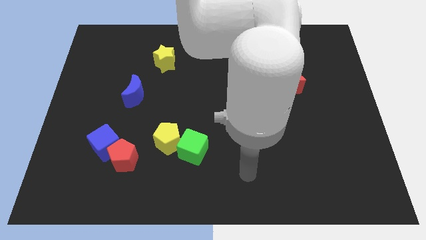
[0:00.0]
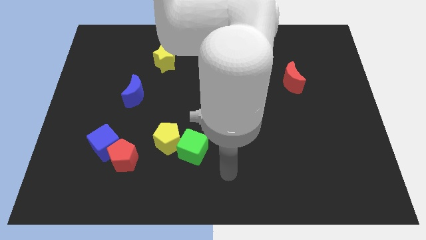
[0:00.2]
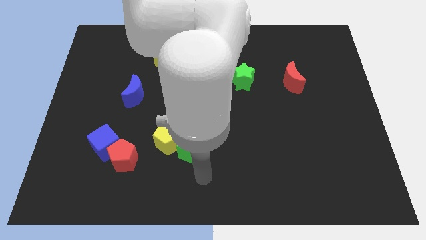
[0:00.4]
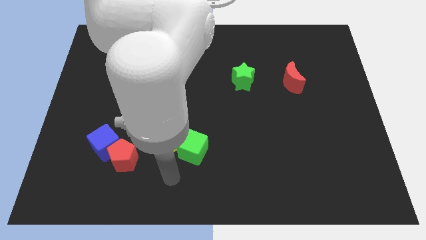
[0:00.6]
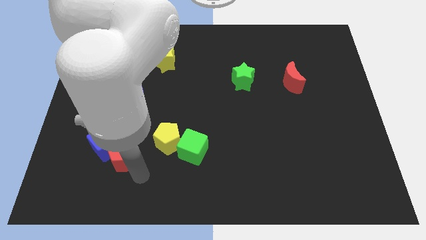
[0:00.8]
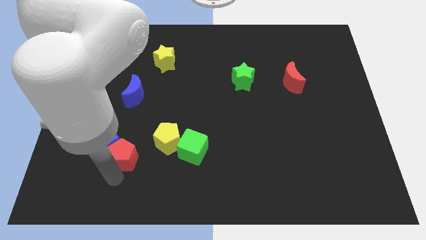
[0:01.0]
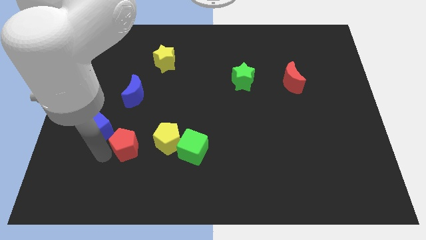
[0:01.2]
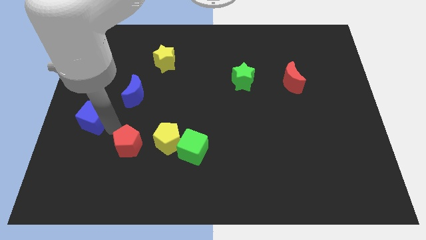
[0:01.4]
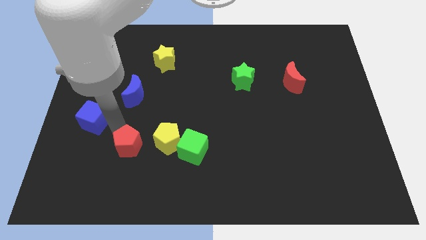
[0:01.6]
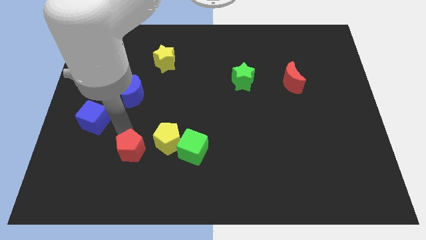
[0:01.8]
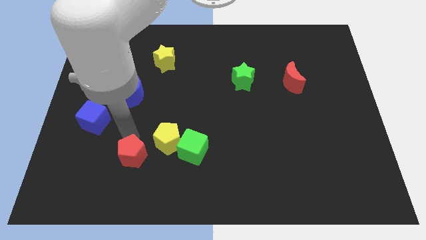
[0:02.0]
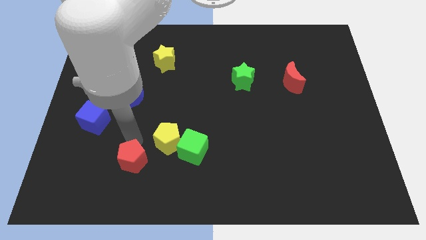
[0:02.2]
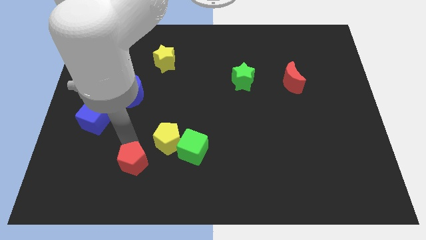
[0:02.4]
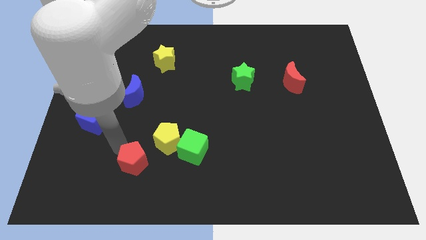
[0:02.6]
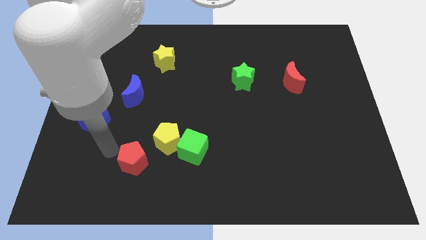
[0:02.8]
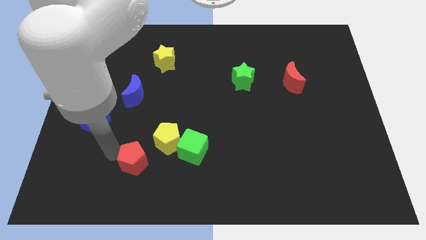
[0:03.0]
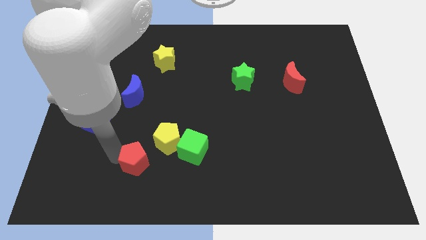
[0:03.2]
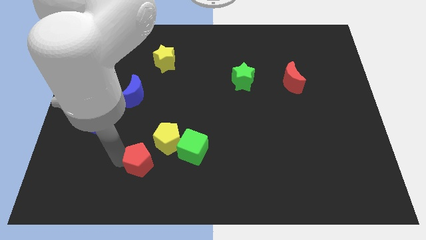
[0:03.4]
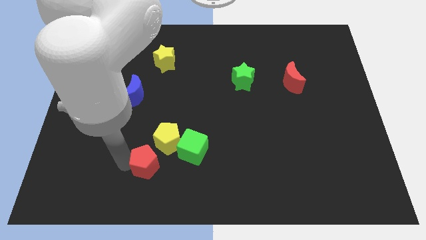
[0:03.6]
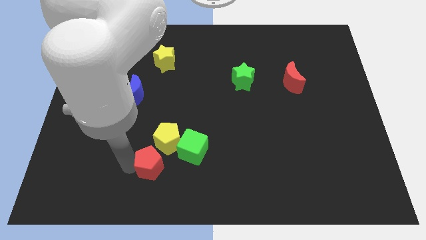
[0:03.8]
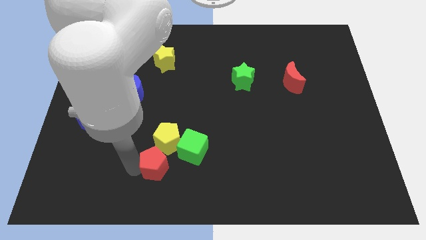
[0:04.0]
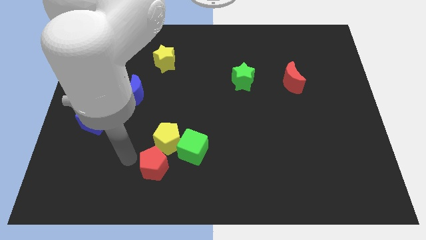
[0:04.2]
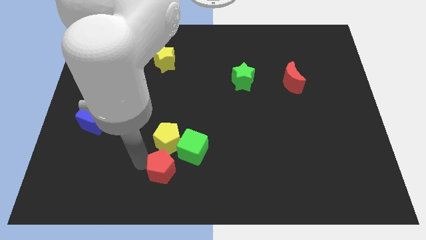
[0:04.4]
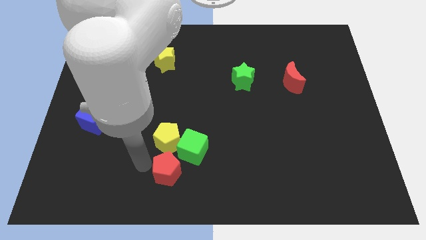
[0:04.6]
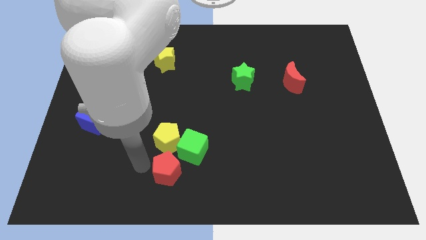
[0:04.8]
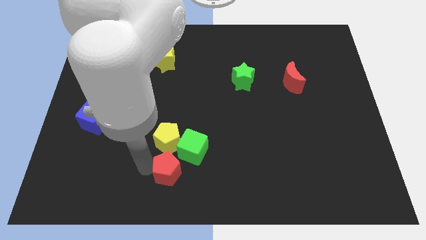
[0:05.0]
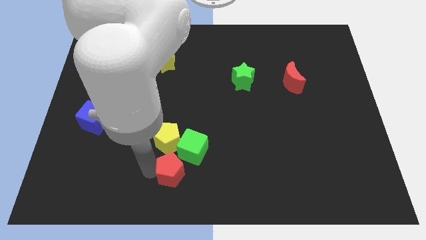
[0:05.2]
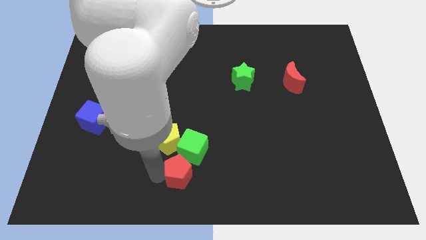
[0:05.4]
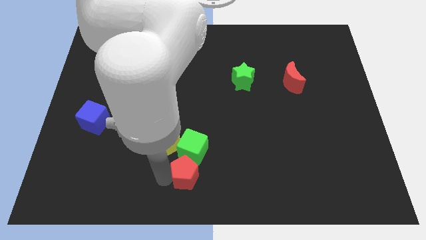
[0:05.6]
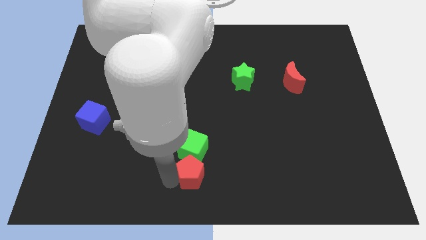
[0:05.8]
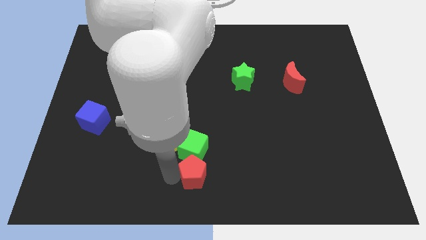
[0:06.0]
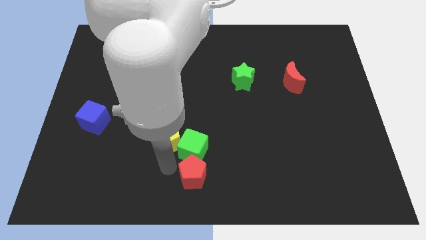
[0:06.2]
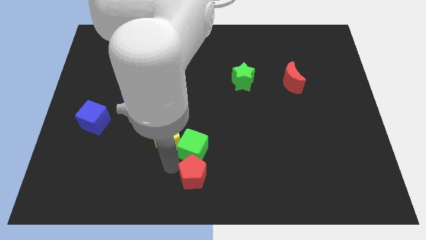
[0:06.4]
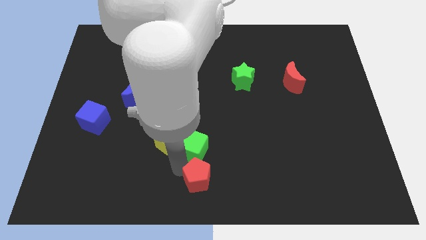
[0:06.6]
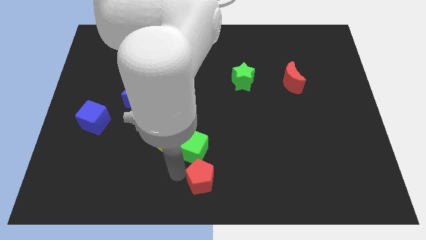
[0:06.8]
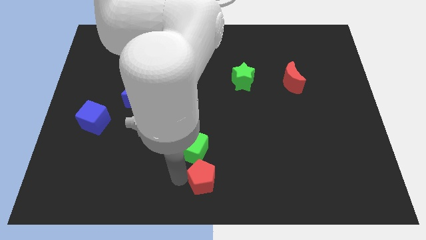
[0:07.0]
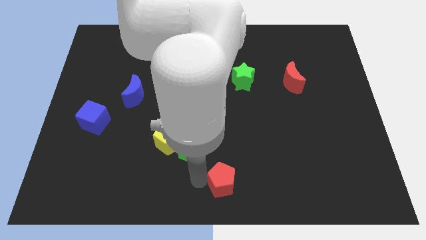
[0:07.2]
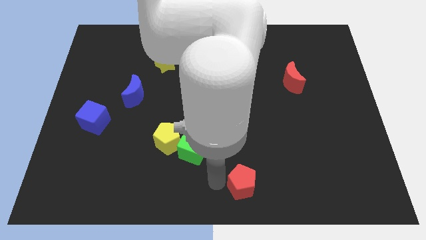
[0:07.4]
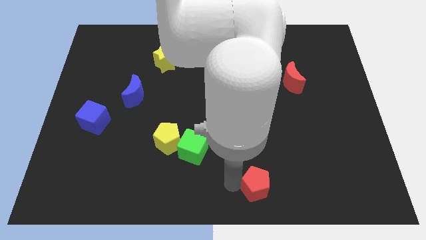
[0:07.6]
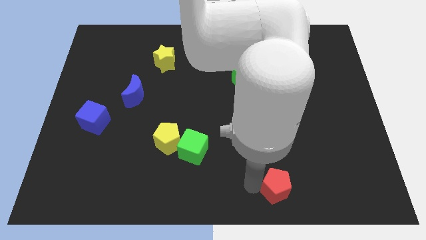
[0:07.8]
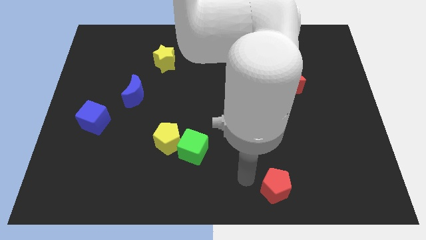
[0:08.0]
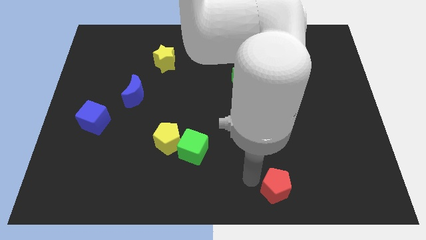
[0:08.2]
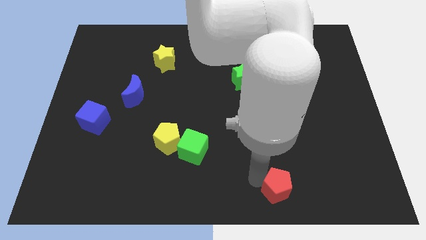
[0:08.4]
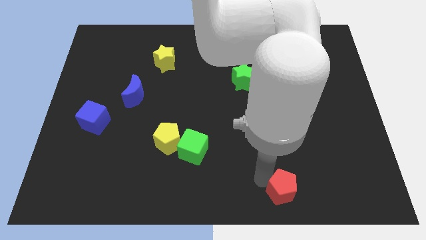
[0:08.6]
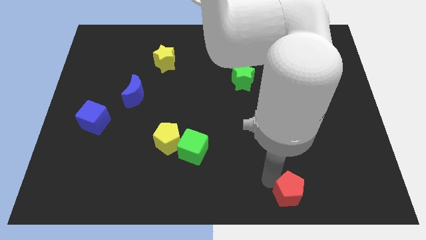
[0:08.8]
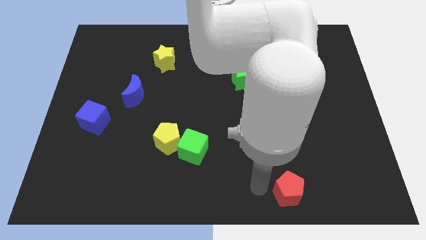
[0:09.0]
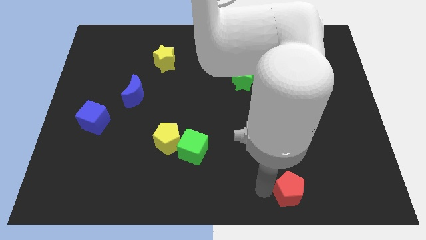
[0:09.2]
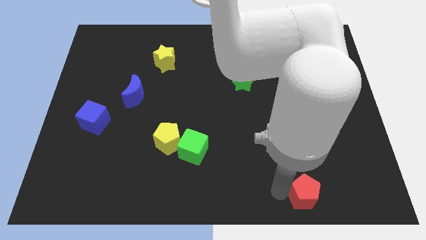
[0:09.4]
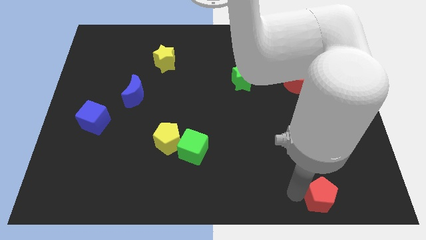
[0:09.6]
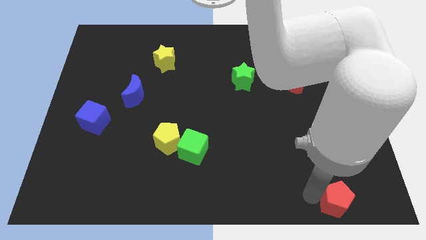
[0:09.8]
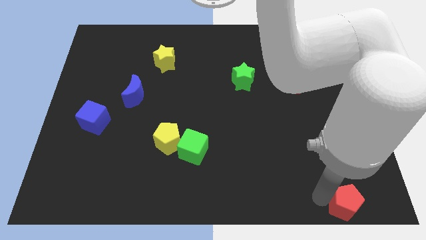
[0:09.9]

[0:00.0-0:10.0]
push the red pentagon to the bottom right of the board

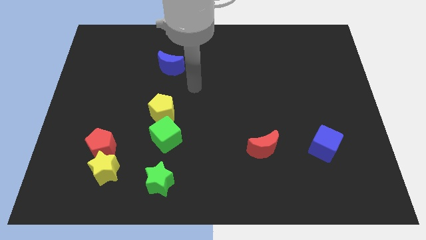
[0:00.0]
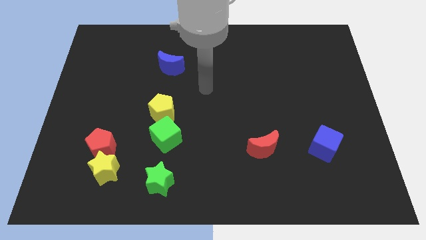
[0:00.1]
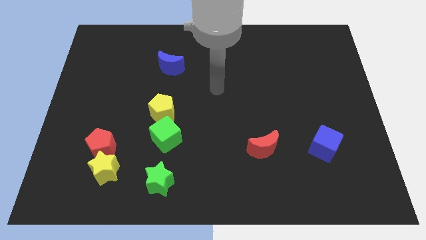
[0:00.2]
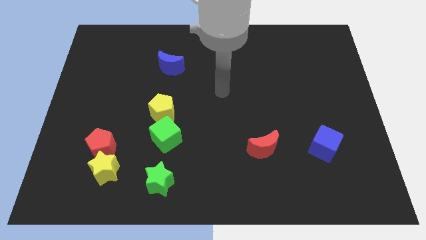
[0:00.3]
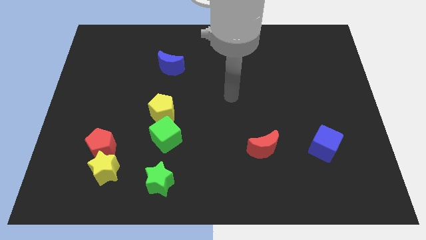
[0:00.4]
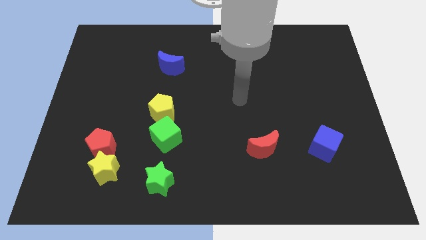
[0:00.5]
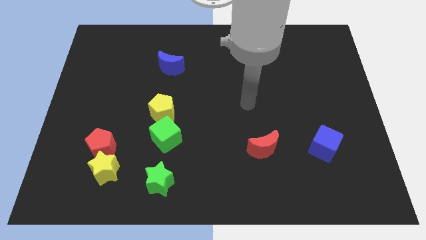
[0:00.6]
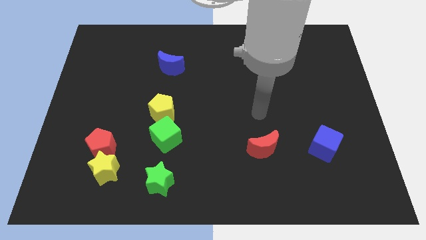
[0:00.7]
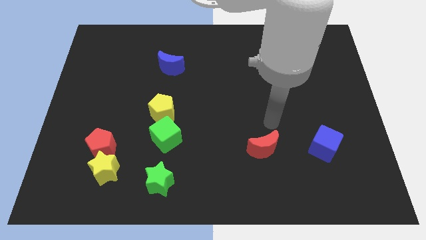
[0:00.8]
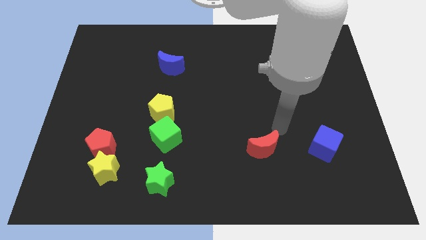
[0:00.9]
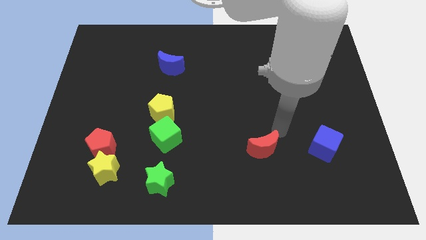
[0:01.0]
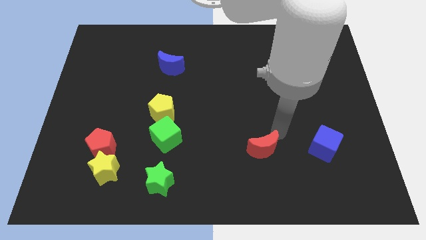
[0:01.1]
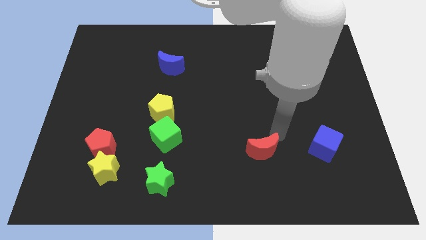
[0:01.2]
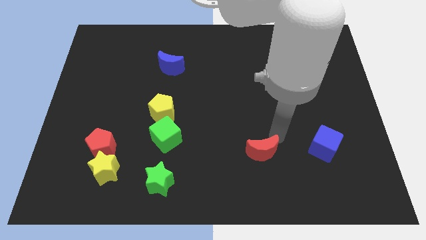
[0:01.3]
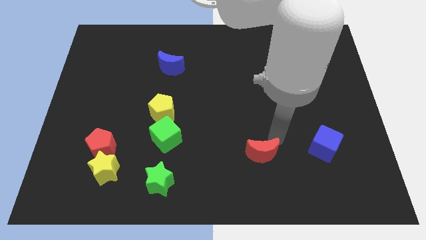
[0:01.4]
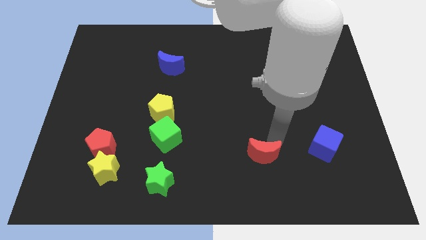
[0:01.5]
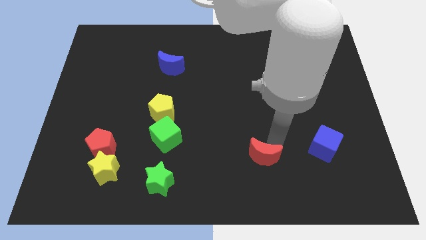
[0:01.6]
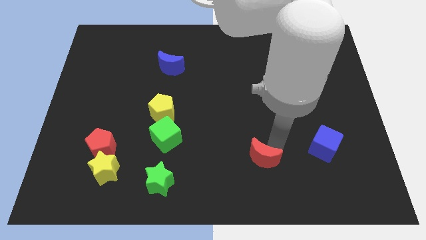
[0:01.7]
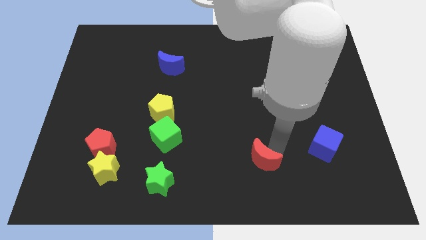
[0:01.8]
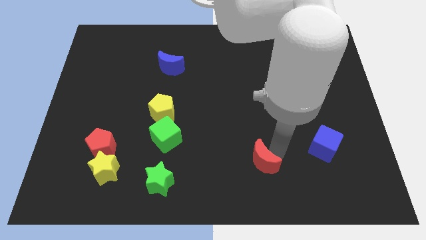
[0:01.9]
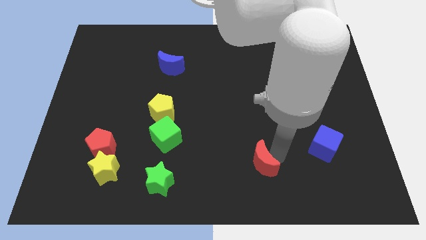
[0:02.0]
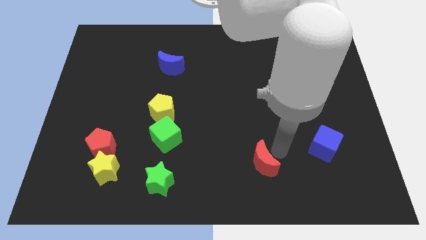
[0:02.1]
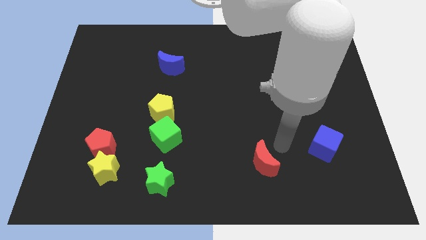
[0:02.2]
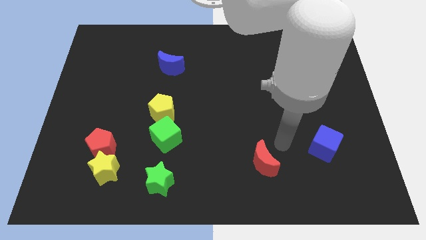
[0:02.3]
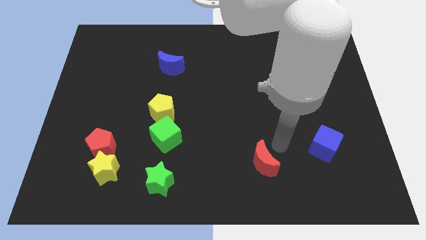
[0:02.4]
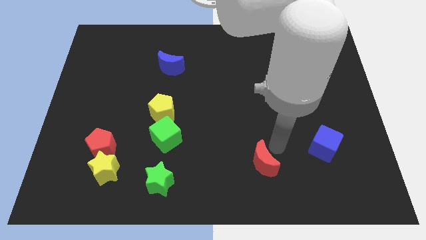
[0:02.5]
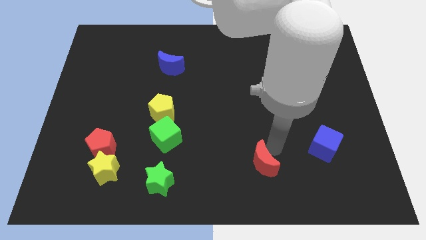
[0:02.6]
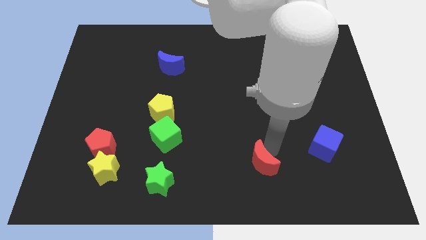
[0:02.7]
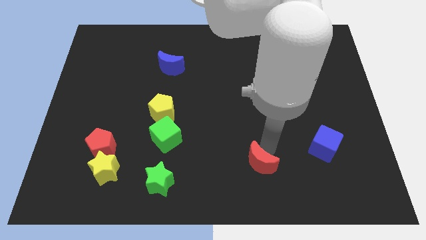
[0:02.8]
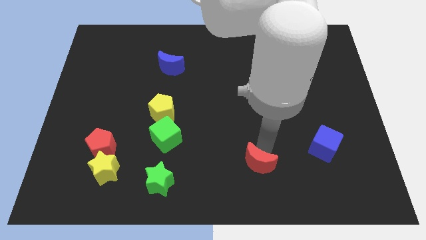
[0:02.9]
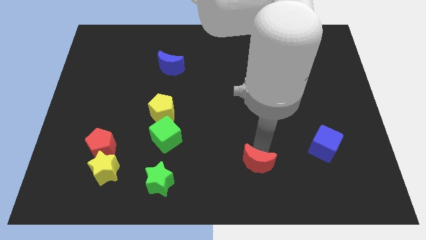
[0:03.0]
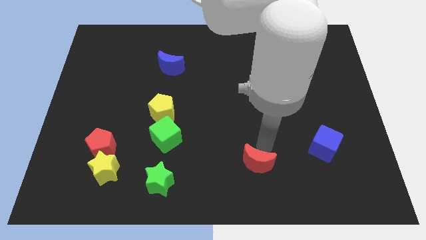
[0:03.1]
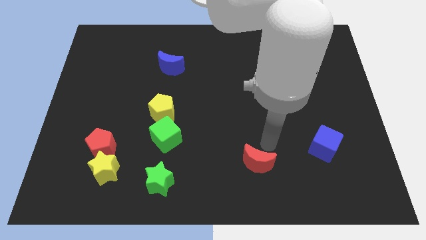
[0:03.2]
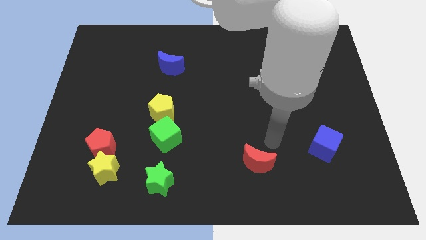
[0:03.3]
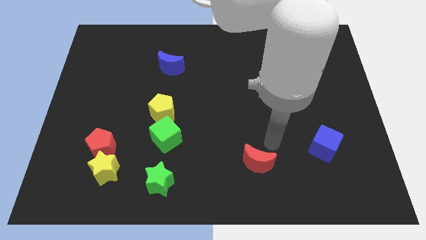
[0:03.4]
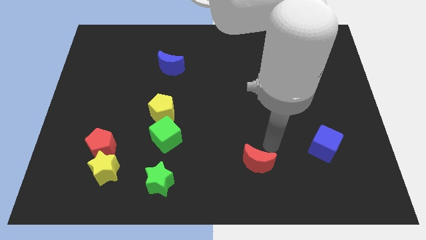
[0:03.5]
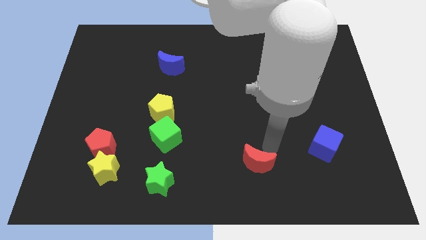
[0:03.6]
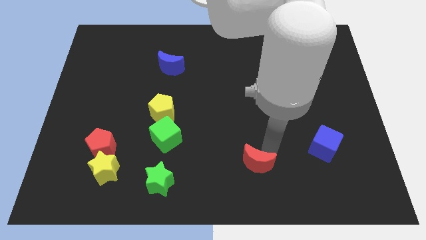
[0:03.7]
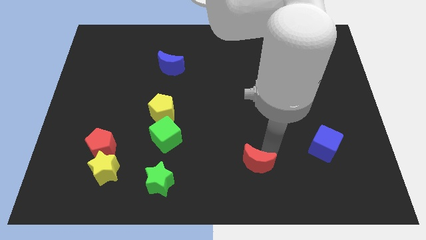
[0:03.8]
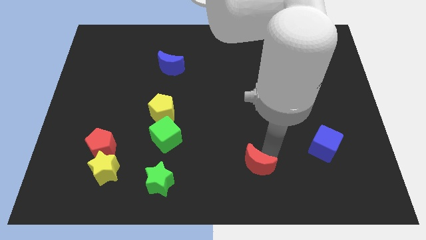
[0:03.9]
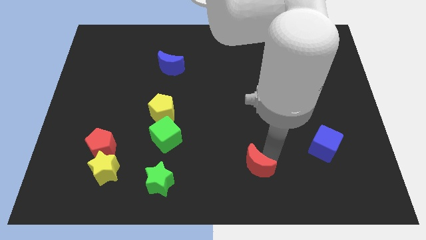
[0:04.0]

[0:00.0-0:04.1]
slide the red moon to the bottom side
